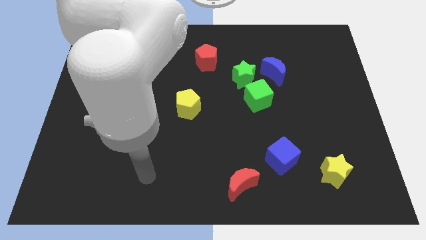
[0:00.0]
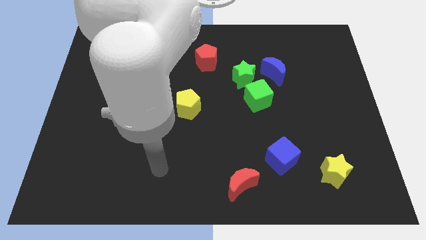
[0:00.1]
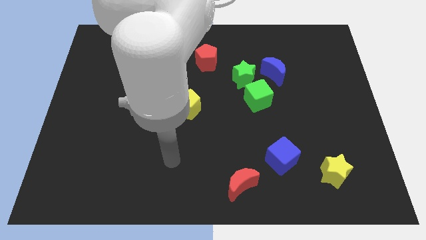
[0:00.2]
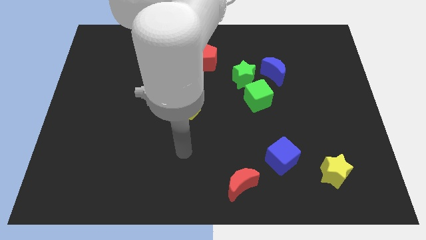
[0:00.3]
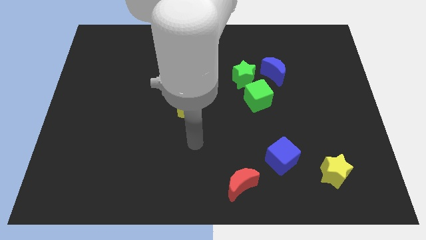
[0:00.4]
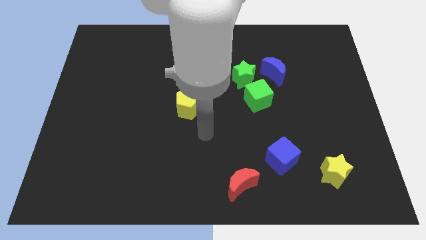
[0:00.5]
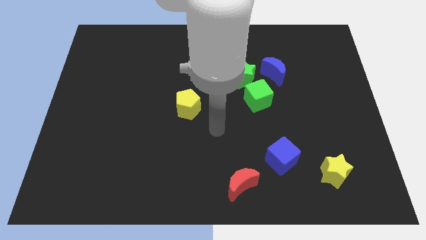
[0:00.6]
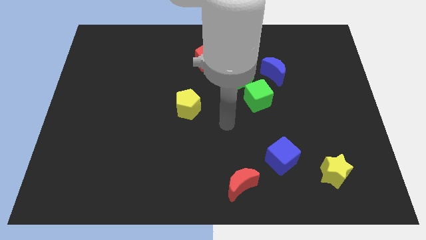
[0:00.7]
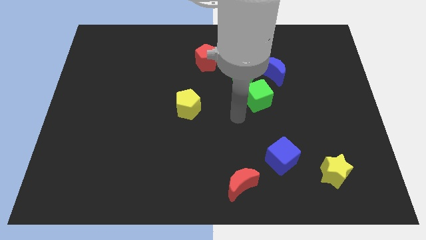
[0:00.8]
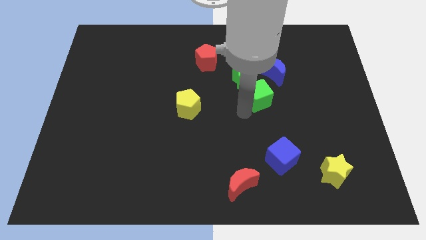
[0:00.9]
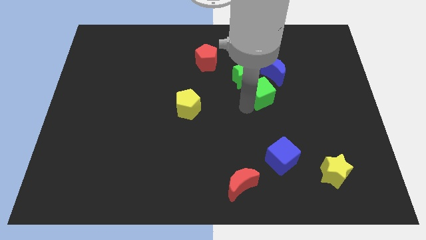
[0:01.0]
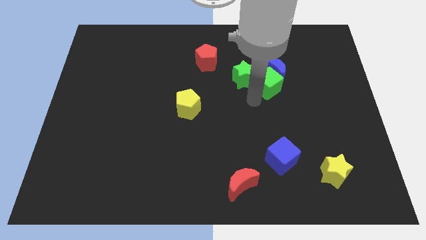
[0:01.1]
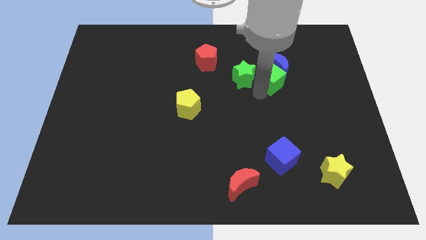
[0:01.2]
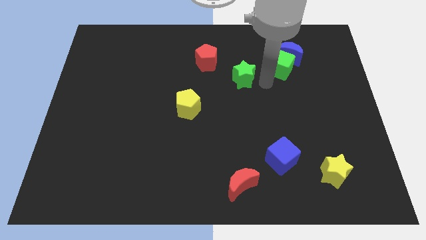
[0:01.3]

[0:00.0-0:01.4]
move the green star away from the green cube and blue moon

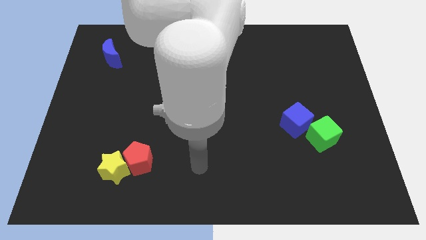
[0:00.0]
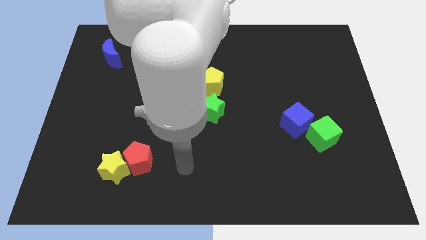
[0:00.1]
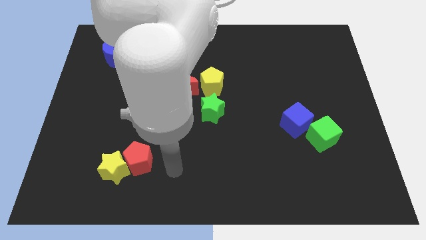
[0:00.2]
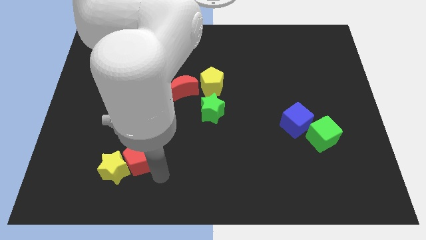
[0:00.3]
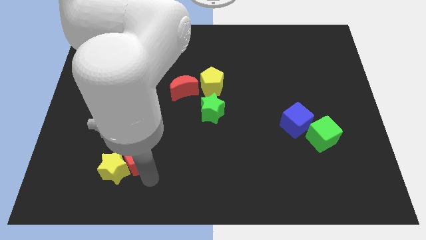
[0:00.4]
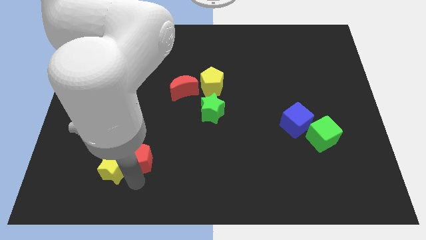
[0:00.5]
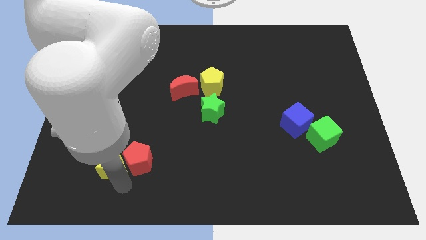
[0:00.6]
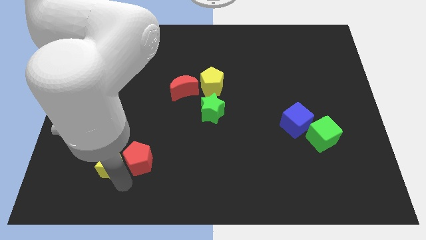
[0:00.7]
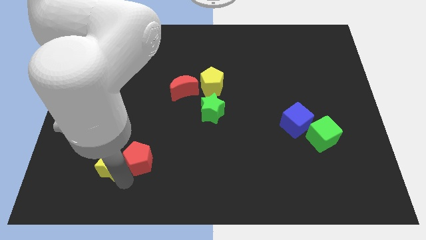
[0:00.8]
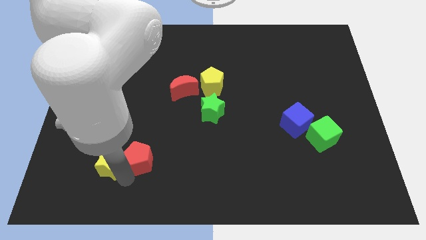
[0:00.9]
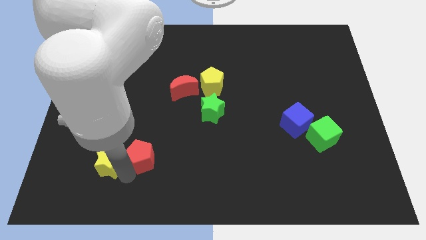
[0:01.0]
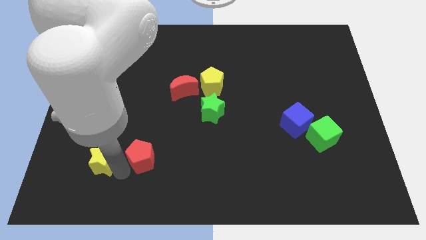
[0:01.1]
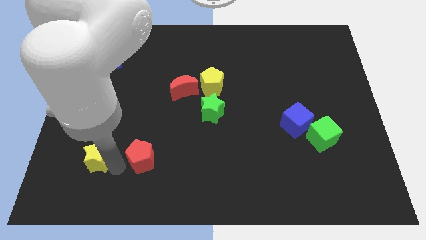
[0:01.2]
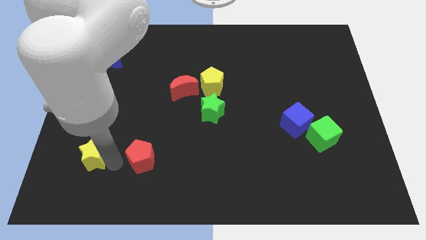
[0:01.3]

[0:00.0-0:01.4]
separate the red pentagon from the yellow star

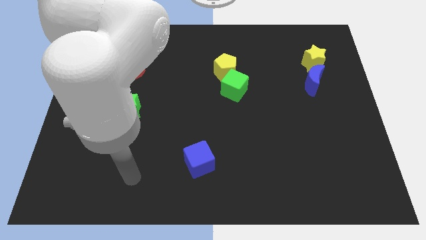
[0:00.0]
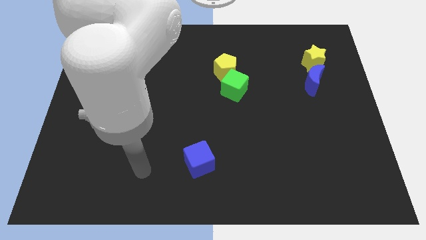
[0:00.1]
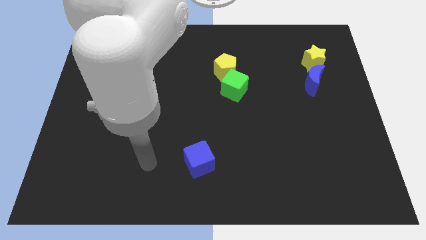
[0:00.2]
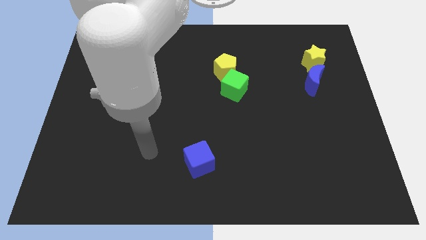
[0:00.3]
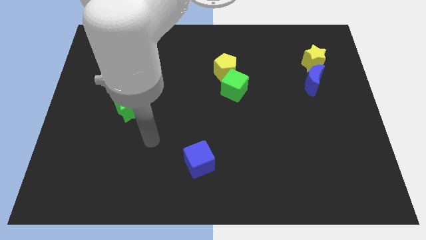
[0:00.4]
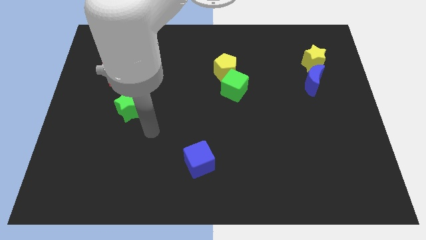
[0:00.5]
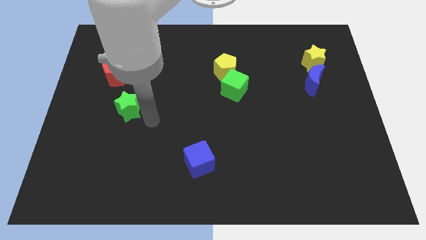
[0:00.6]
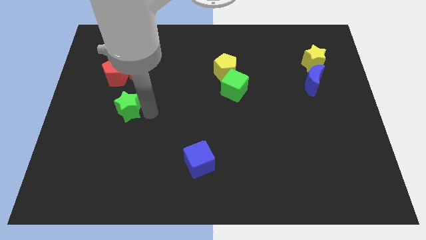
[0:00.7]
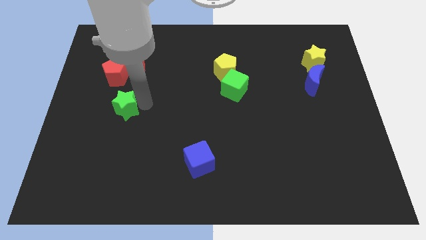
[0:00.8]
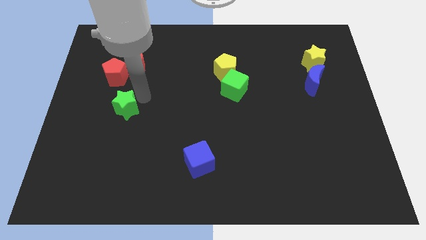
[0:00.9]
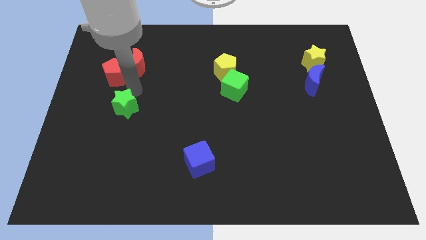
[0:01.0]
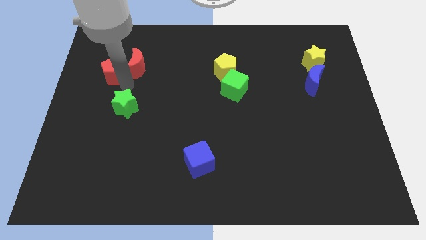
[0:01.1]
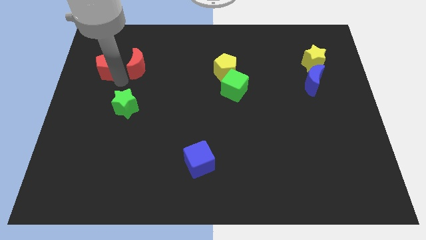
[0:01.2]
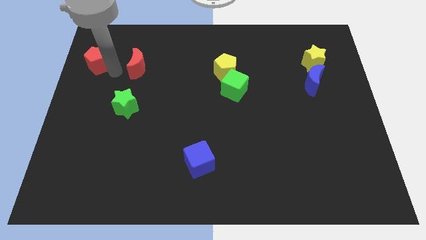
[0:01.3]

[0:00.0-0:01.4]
pull the red moon apart from the red pentagon

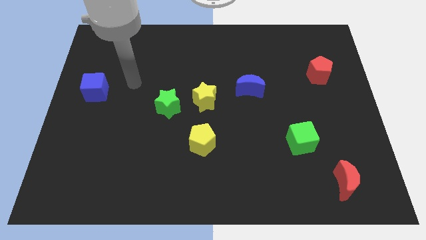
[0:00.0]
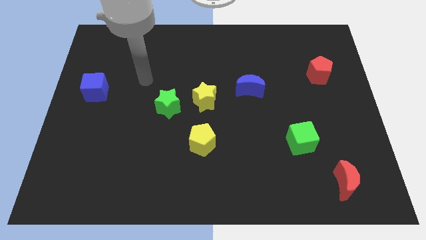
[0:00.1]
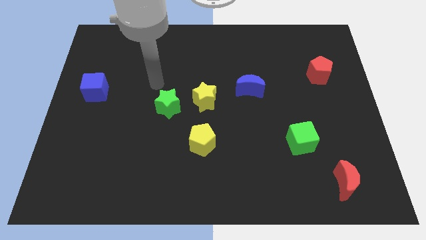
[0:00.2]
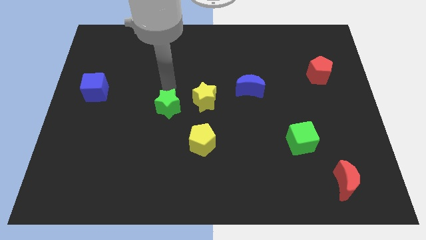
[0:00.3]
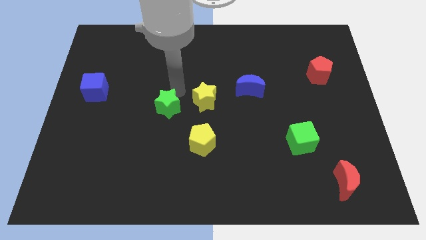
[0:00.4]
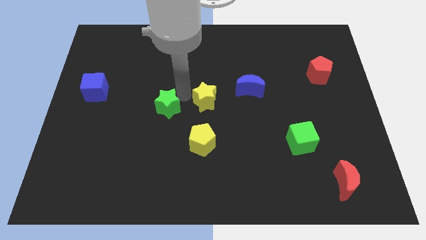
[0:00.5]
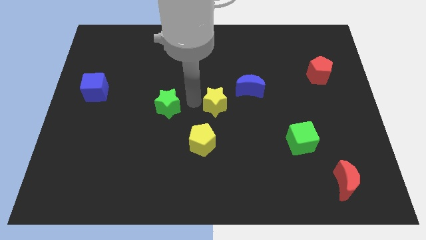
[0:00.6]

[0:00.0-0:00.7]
move the green star away from the yellow star

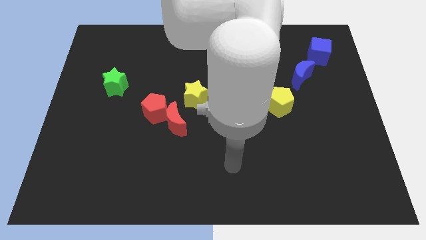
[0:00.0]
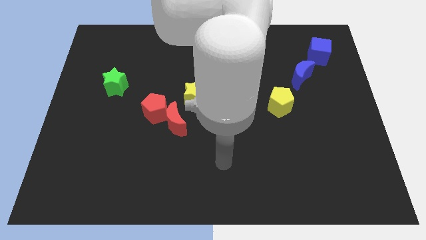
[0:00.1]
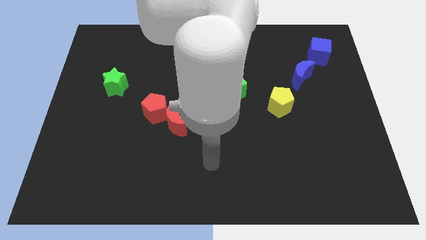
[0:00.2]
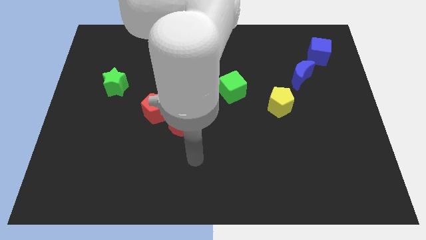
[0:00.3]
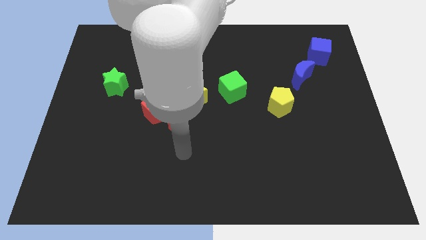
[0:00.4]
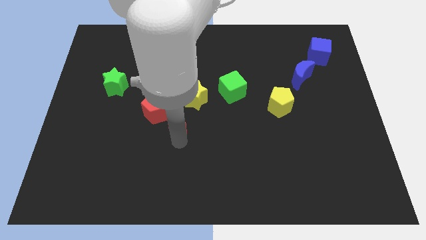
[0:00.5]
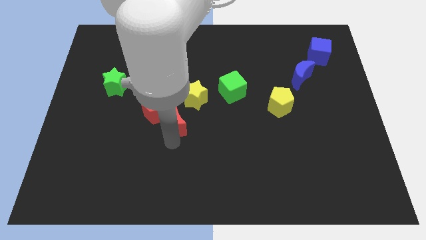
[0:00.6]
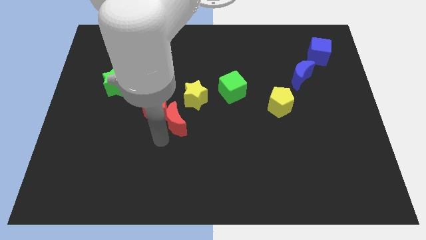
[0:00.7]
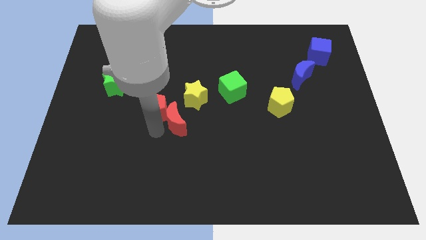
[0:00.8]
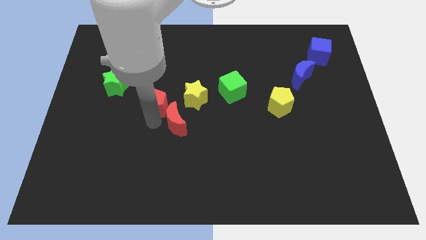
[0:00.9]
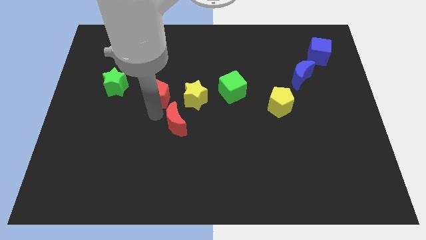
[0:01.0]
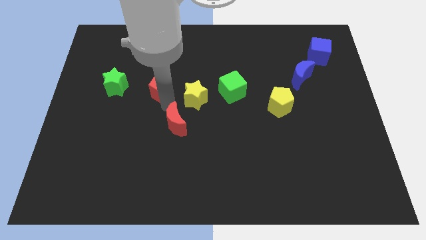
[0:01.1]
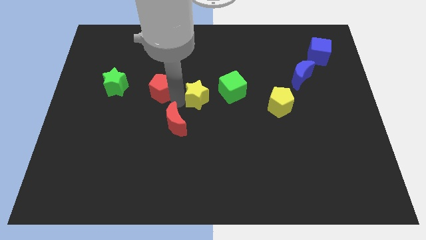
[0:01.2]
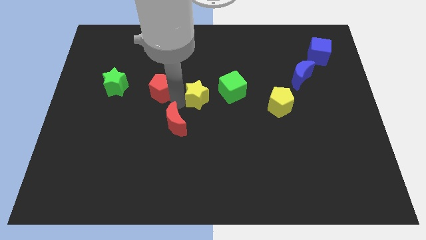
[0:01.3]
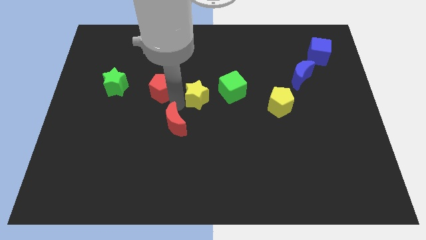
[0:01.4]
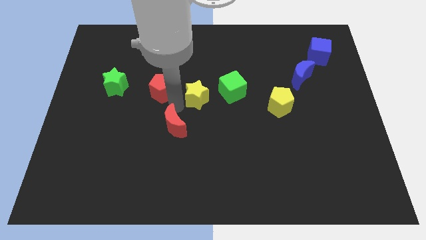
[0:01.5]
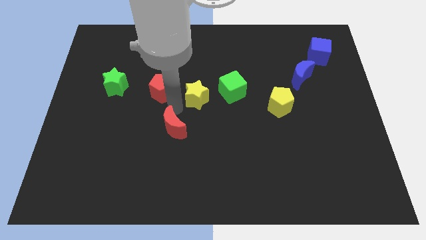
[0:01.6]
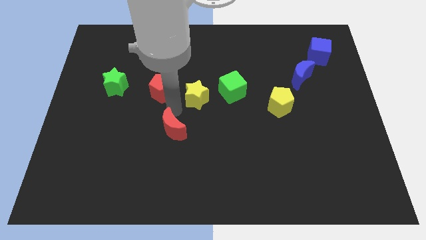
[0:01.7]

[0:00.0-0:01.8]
pull the red moon apart from the red pentagon and yellow star

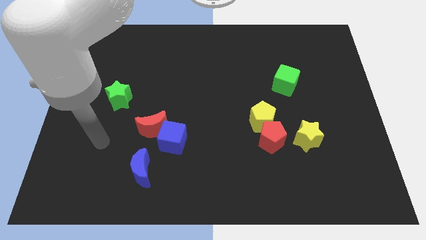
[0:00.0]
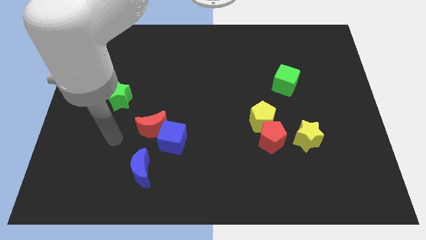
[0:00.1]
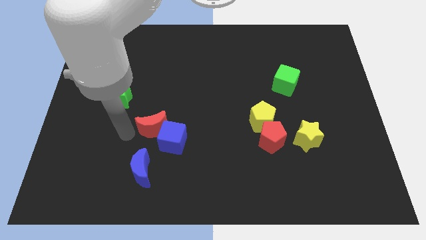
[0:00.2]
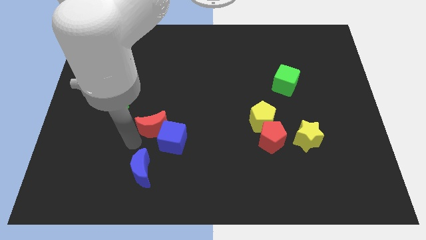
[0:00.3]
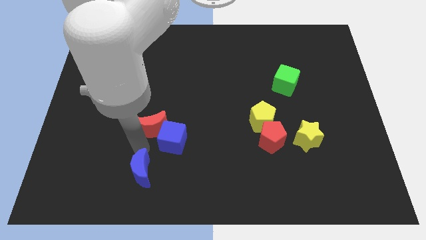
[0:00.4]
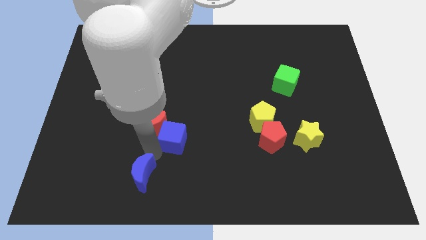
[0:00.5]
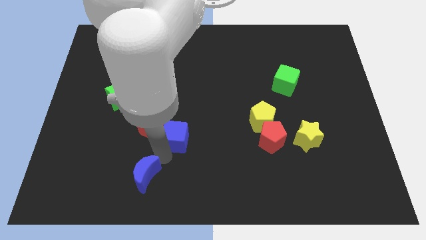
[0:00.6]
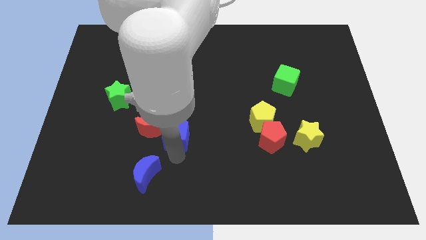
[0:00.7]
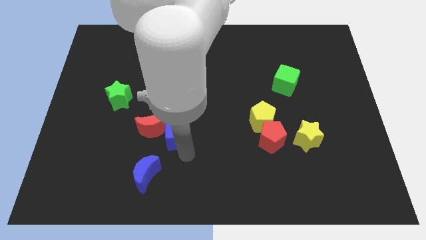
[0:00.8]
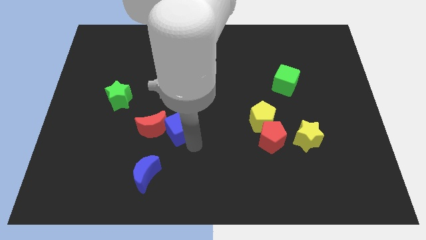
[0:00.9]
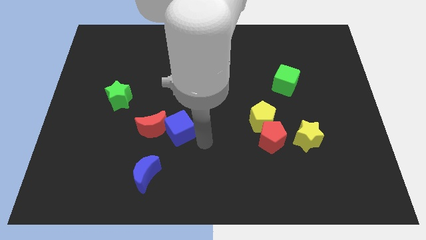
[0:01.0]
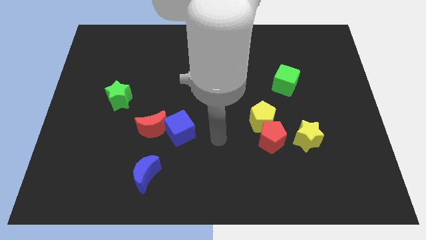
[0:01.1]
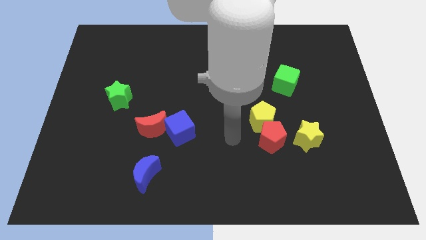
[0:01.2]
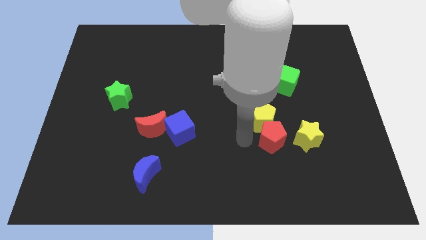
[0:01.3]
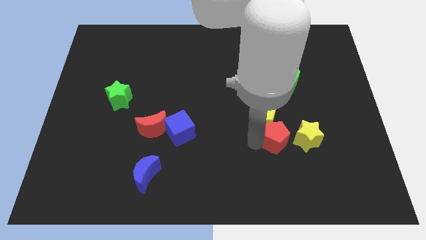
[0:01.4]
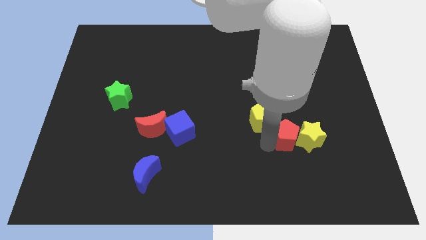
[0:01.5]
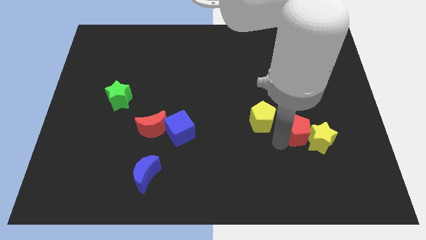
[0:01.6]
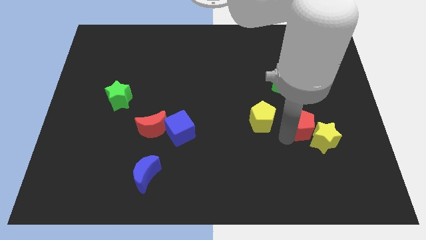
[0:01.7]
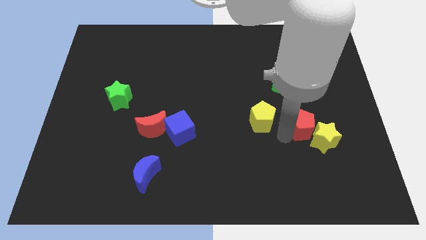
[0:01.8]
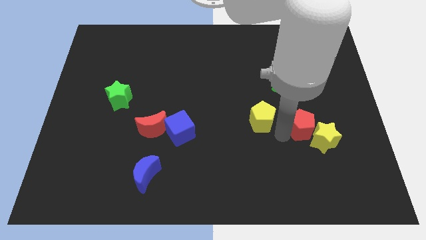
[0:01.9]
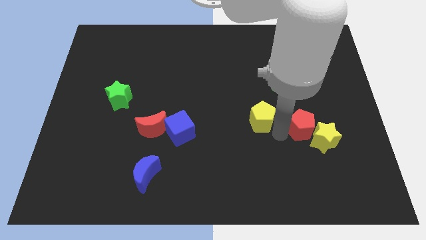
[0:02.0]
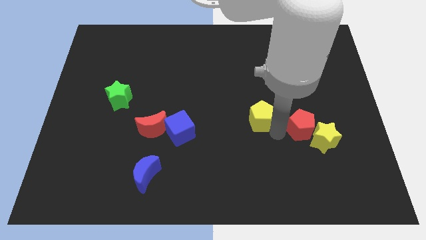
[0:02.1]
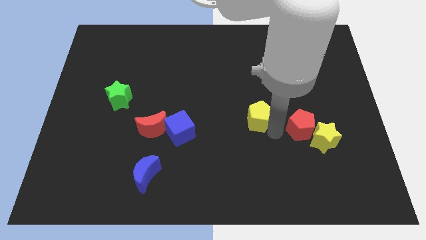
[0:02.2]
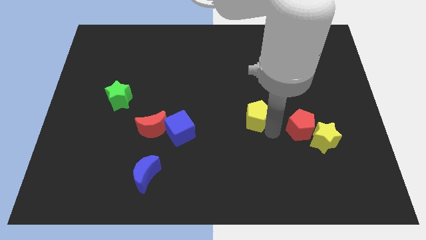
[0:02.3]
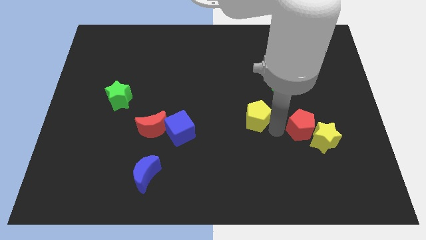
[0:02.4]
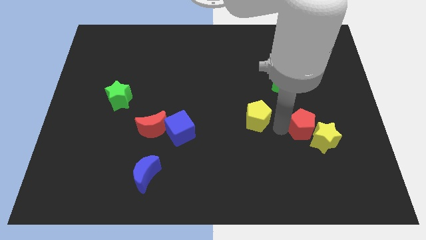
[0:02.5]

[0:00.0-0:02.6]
separate the yellow pentagon from the red pentagon
